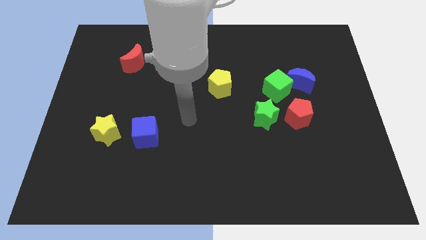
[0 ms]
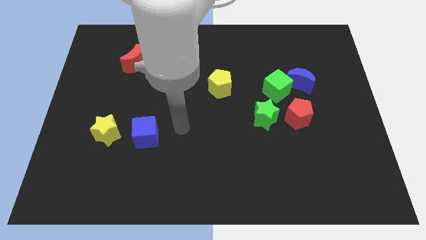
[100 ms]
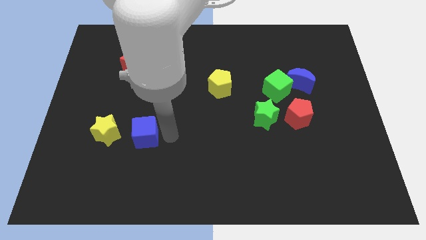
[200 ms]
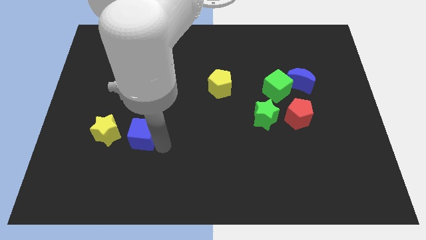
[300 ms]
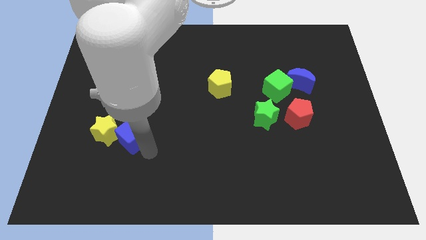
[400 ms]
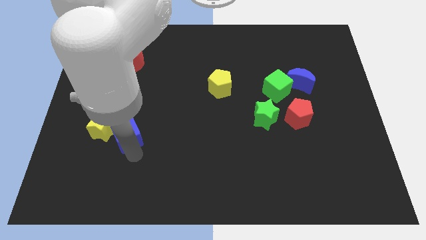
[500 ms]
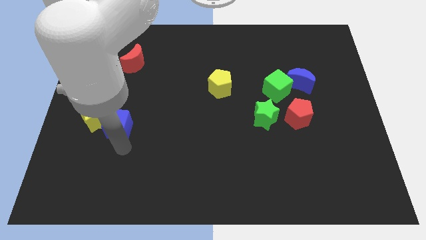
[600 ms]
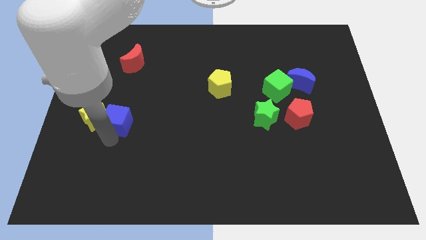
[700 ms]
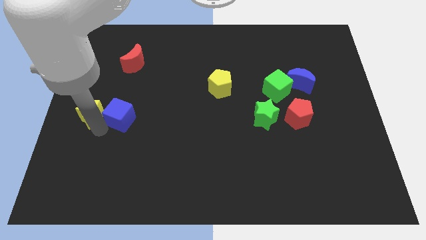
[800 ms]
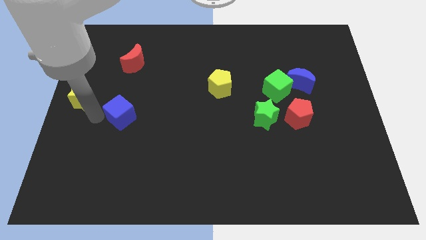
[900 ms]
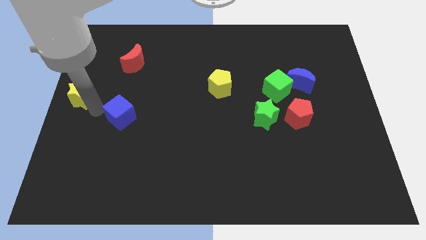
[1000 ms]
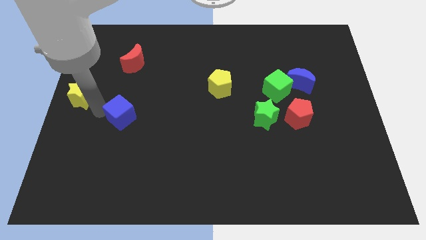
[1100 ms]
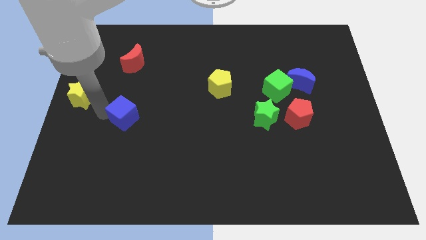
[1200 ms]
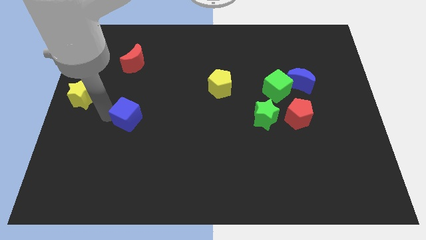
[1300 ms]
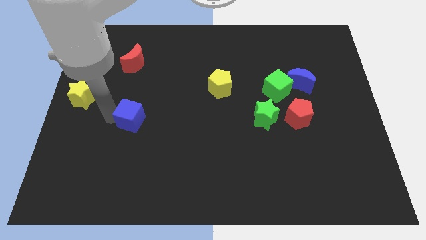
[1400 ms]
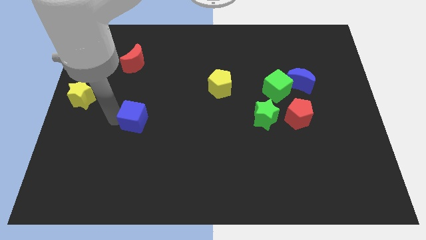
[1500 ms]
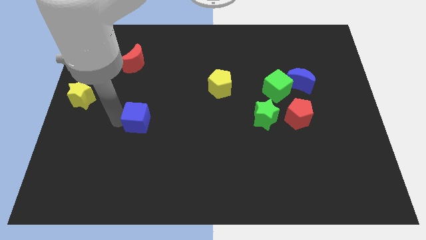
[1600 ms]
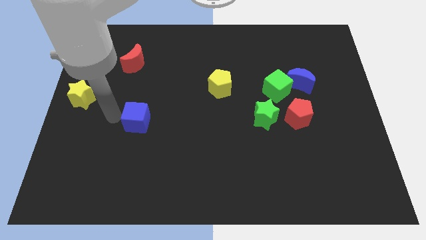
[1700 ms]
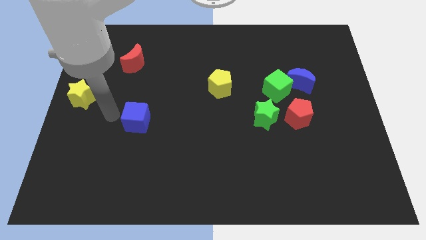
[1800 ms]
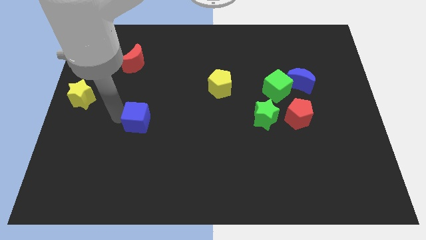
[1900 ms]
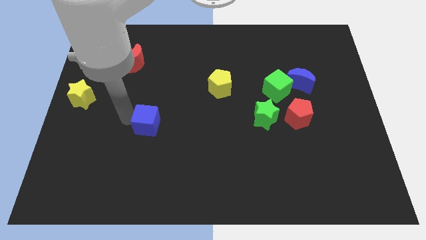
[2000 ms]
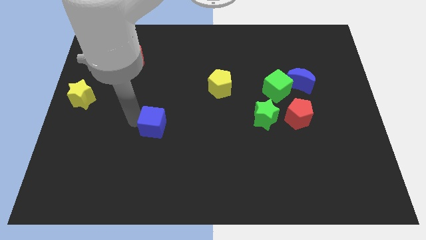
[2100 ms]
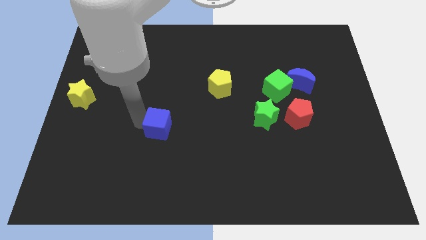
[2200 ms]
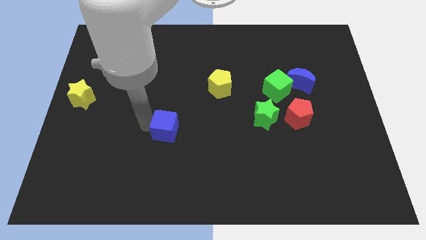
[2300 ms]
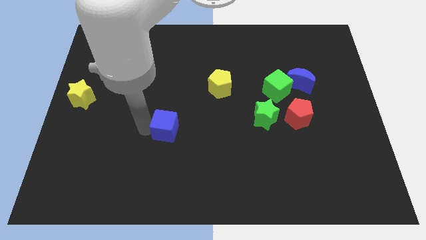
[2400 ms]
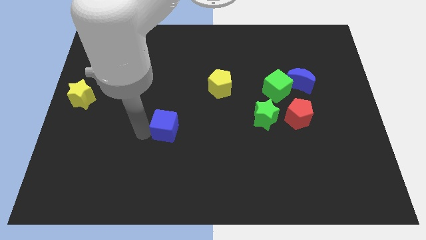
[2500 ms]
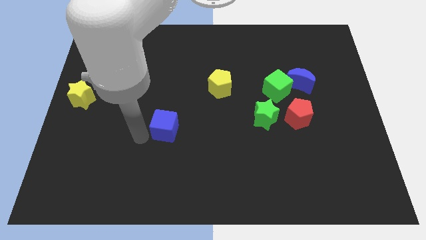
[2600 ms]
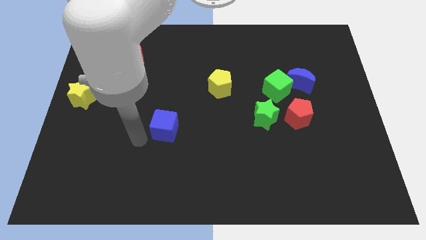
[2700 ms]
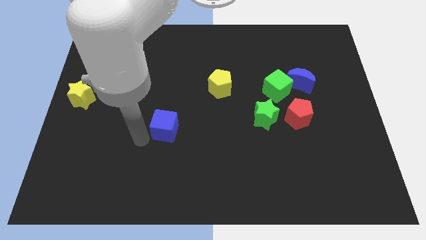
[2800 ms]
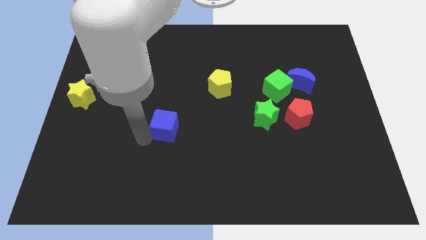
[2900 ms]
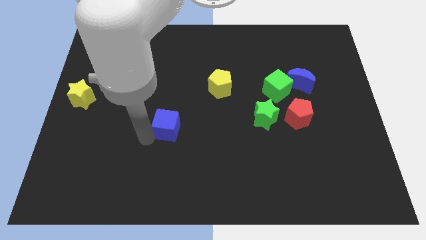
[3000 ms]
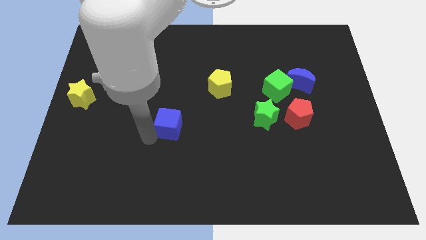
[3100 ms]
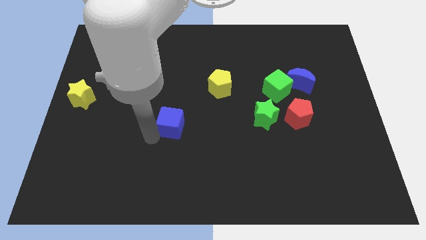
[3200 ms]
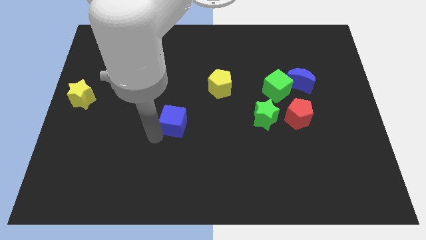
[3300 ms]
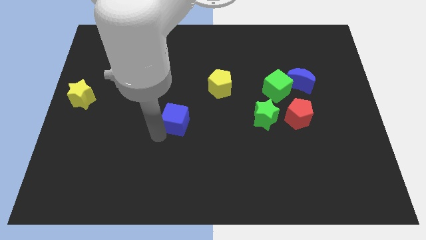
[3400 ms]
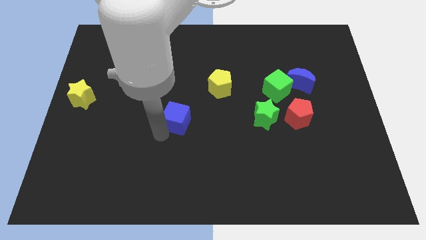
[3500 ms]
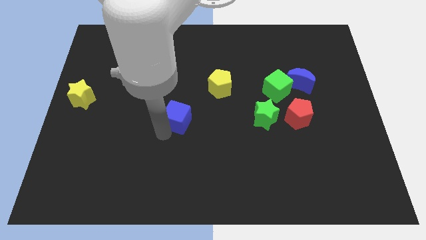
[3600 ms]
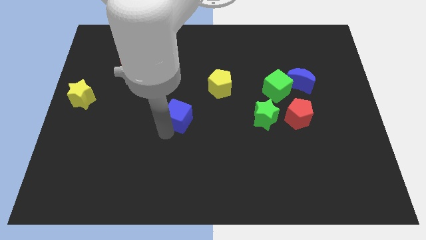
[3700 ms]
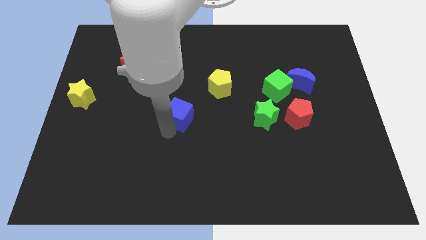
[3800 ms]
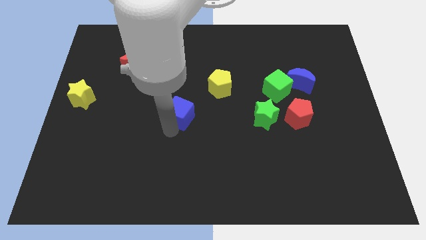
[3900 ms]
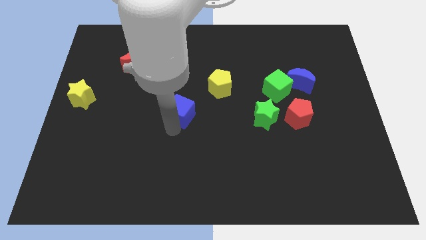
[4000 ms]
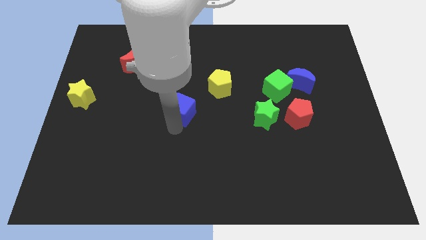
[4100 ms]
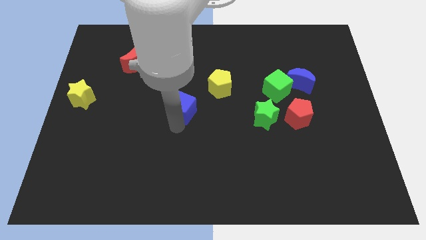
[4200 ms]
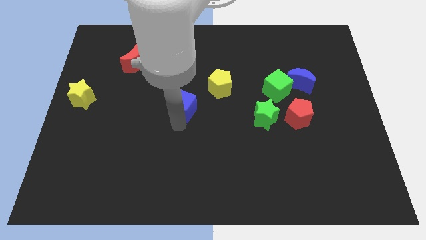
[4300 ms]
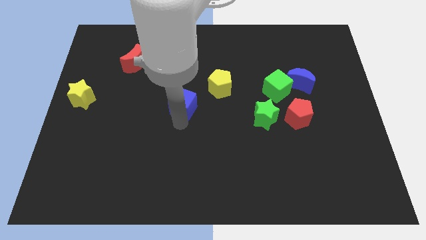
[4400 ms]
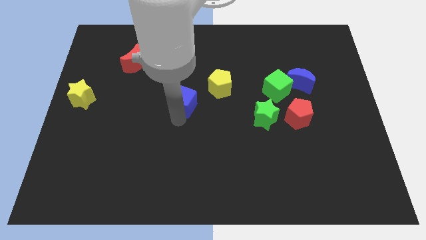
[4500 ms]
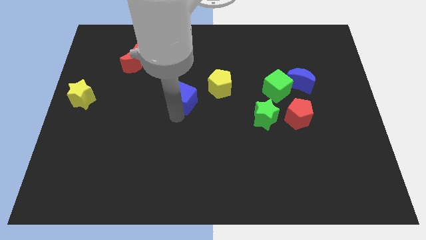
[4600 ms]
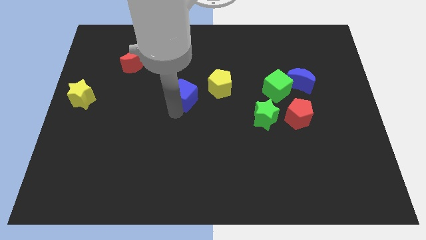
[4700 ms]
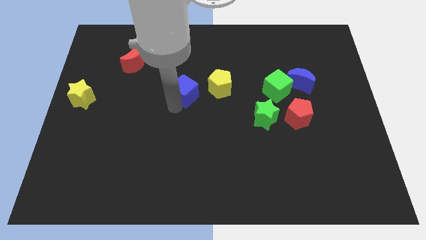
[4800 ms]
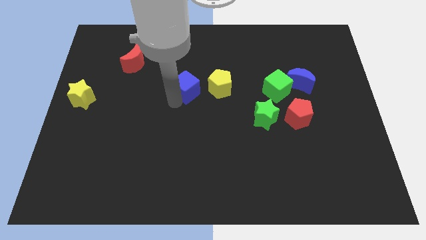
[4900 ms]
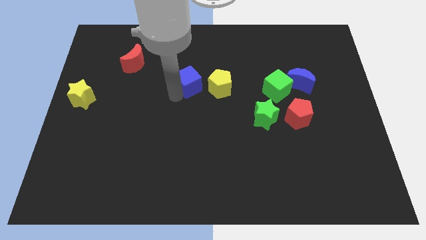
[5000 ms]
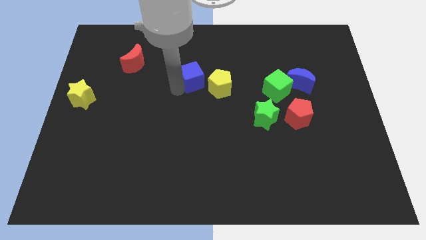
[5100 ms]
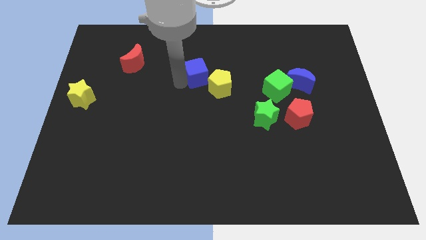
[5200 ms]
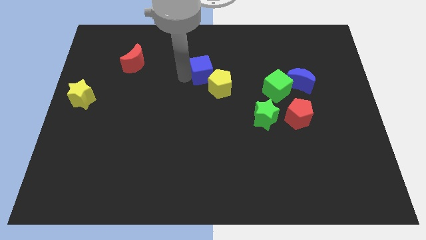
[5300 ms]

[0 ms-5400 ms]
slide the blue cube up and then to the right

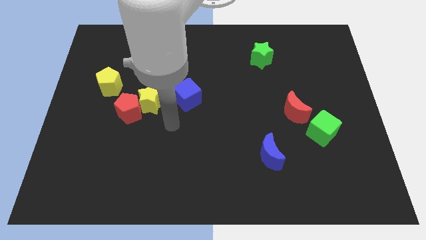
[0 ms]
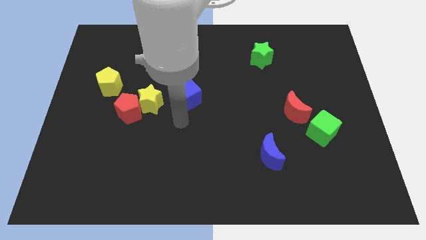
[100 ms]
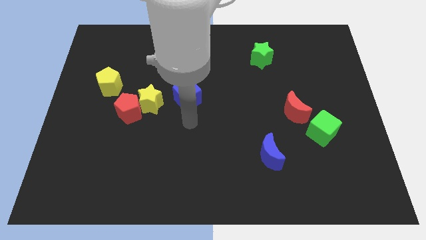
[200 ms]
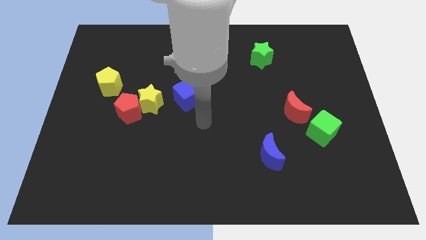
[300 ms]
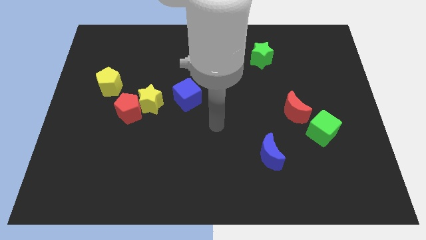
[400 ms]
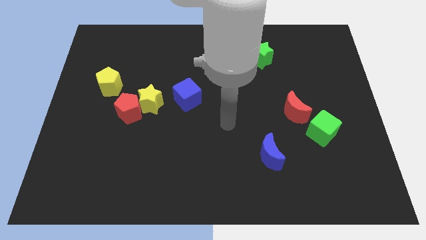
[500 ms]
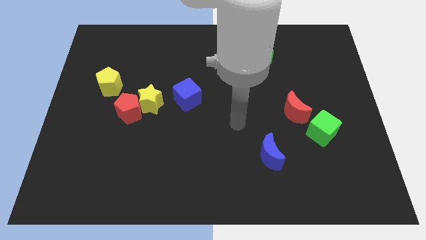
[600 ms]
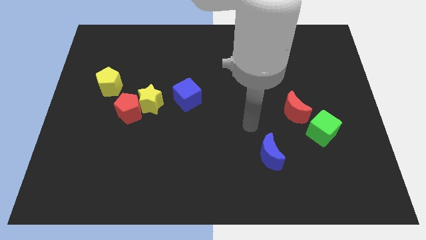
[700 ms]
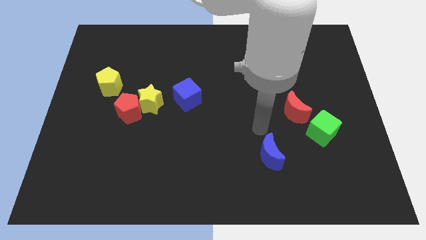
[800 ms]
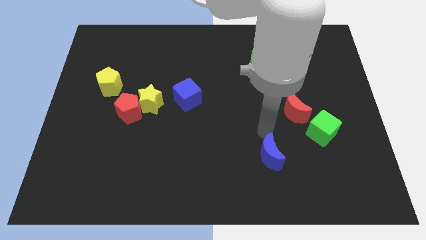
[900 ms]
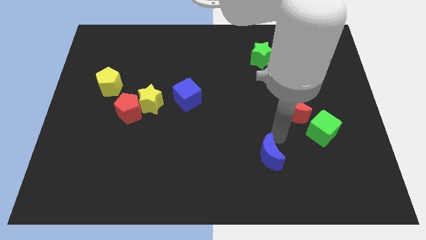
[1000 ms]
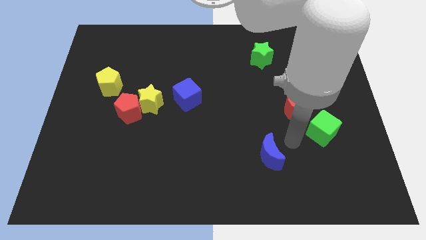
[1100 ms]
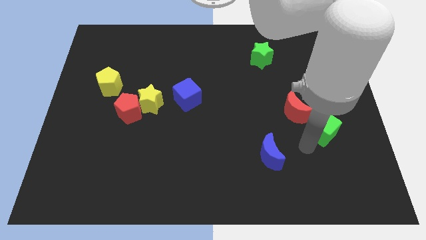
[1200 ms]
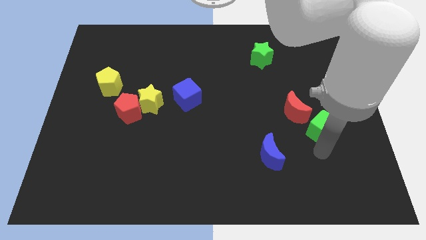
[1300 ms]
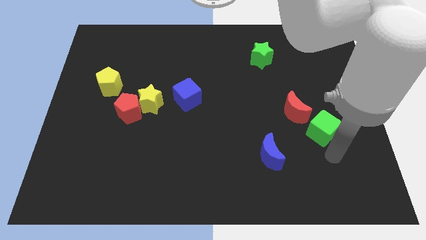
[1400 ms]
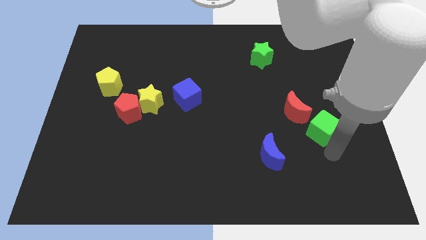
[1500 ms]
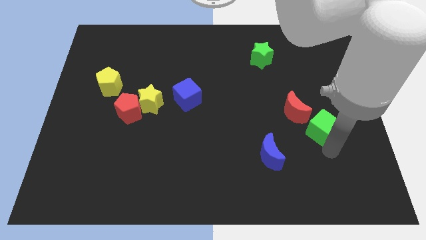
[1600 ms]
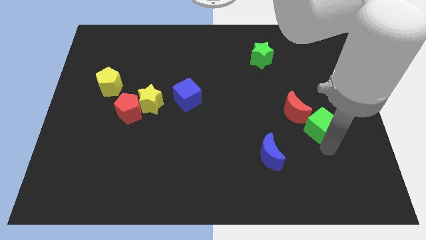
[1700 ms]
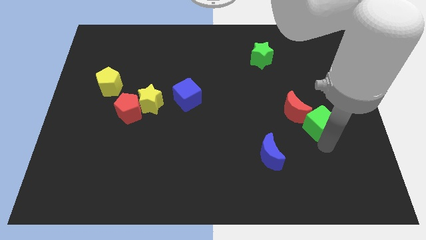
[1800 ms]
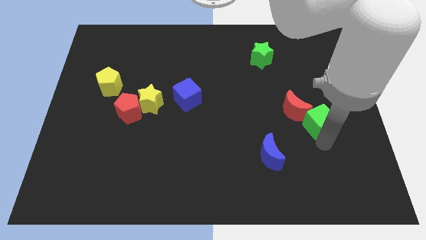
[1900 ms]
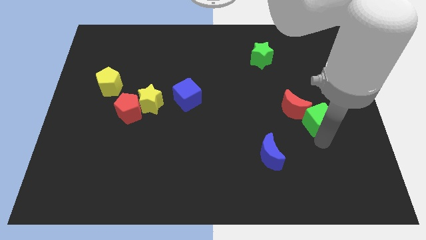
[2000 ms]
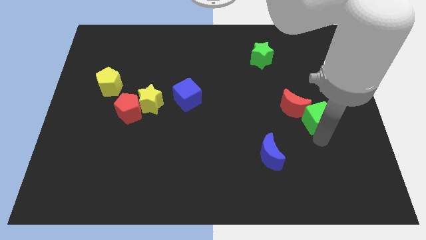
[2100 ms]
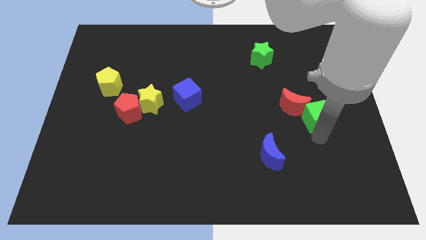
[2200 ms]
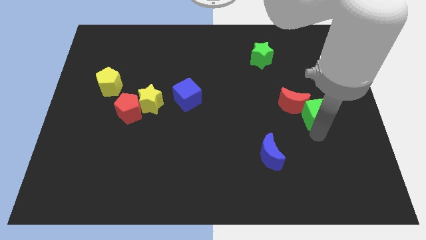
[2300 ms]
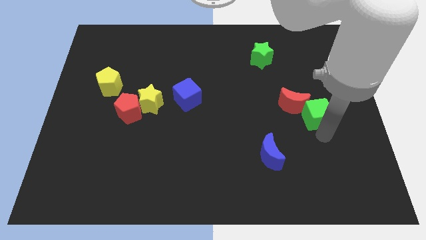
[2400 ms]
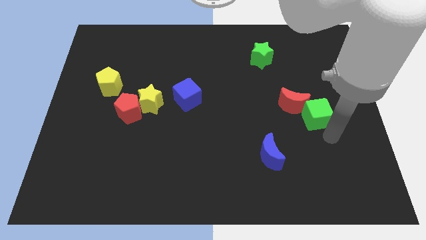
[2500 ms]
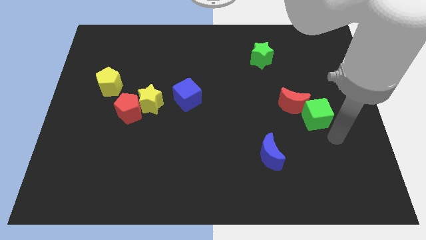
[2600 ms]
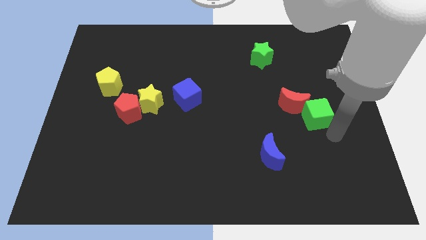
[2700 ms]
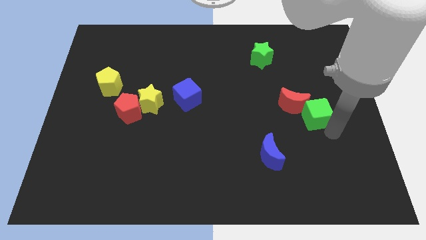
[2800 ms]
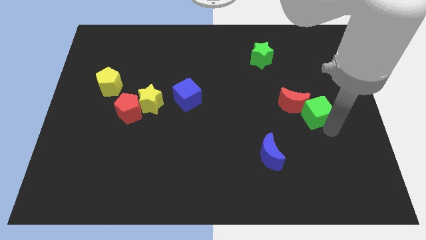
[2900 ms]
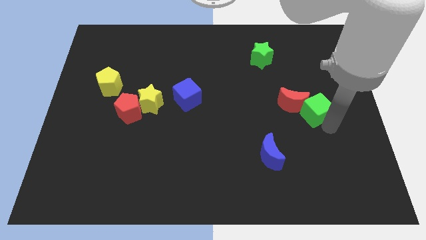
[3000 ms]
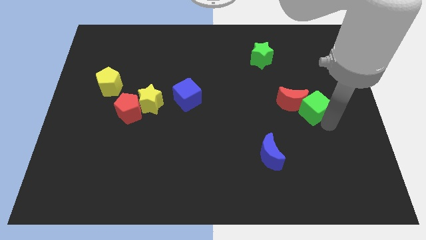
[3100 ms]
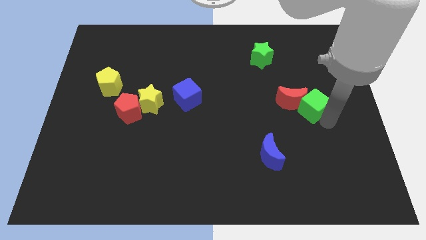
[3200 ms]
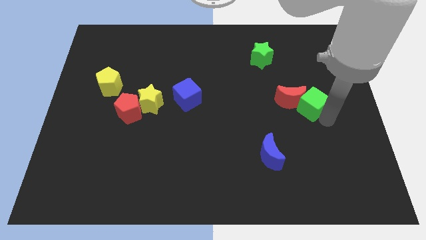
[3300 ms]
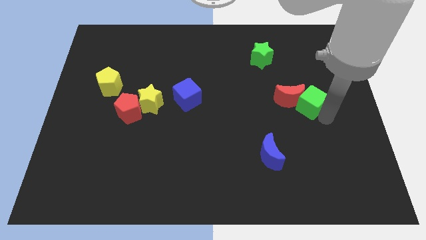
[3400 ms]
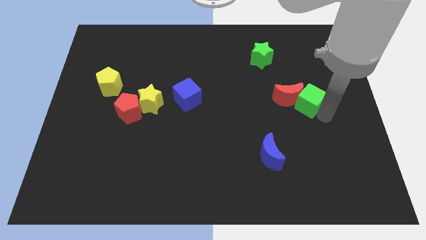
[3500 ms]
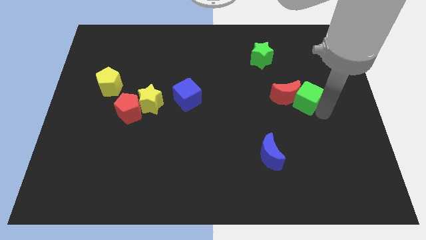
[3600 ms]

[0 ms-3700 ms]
slightly slide the green cube up and to the left
